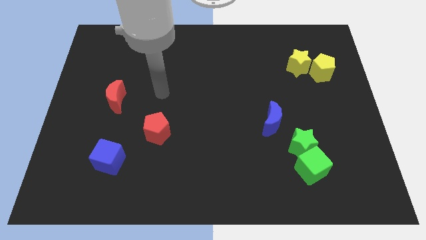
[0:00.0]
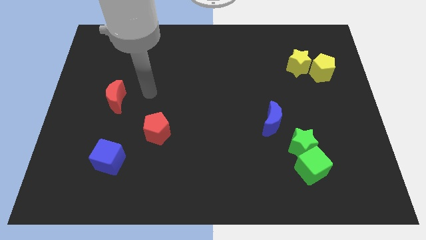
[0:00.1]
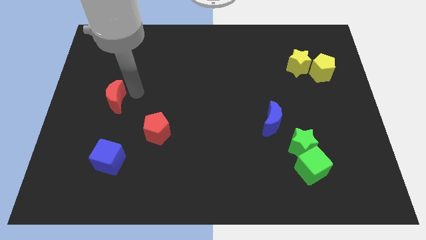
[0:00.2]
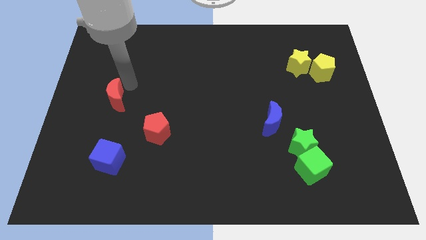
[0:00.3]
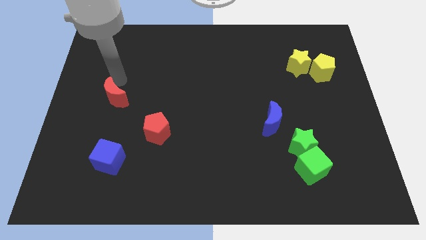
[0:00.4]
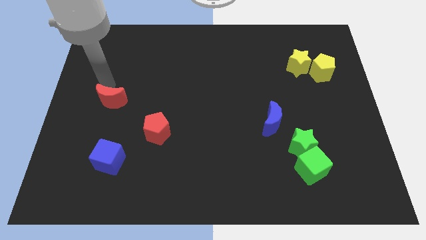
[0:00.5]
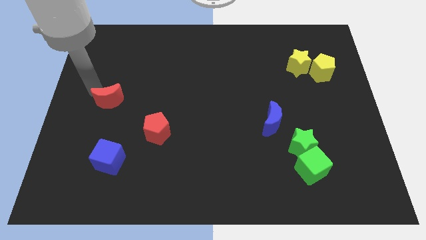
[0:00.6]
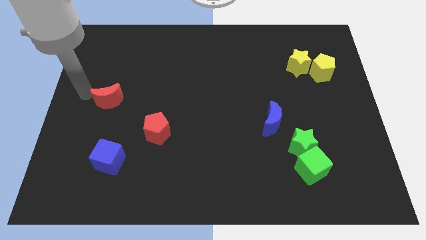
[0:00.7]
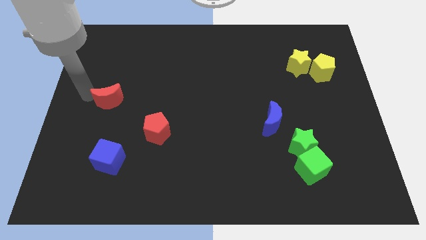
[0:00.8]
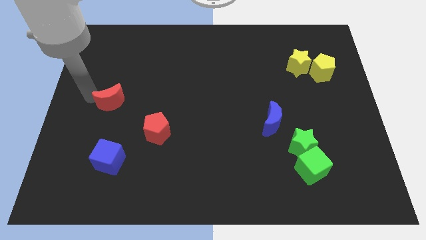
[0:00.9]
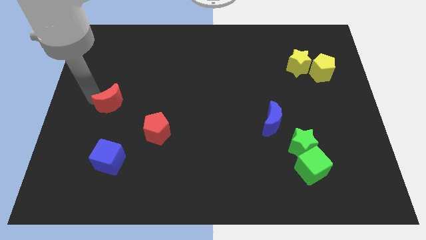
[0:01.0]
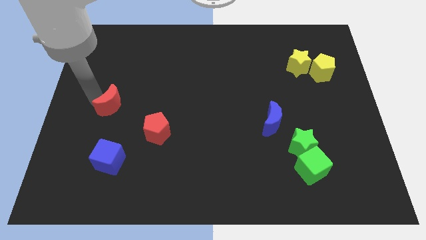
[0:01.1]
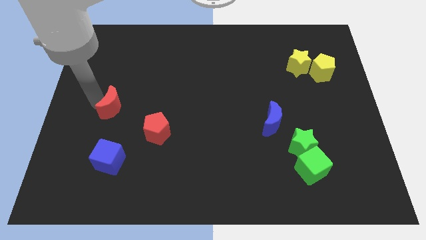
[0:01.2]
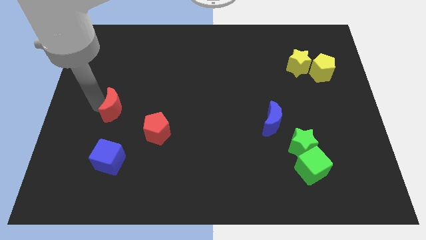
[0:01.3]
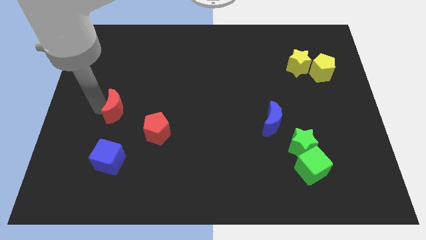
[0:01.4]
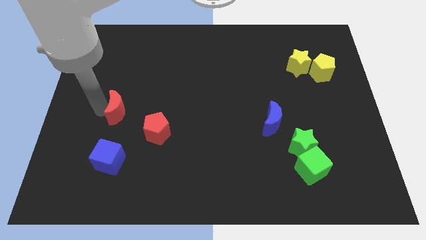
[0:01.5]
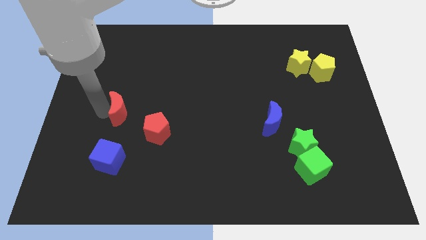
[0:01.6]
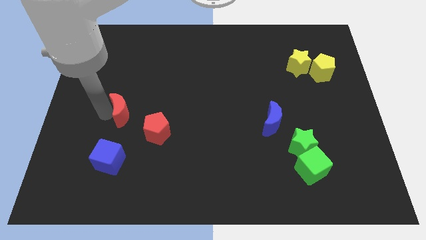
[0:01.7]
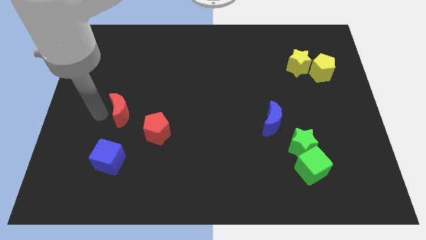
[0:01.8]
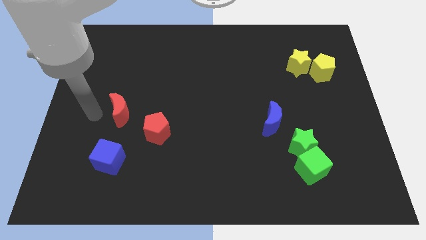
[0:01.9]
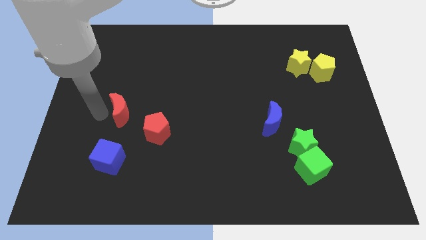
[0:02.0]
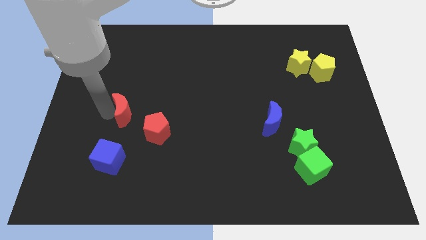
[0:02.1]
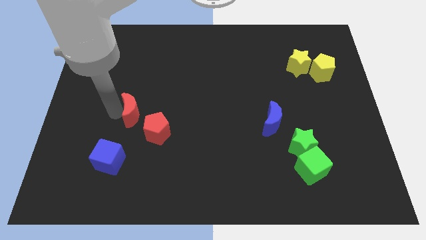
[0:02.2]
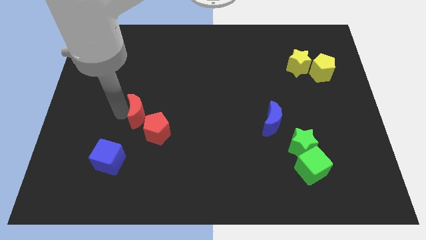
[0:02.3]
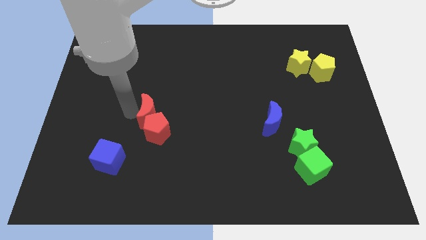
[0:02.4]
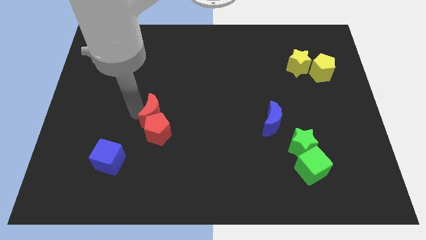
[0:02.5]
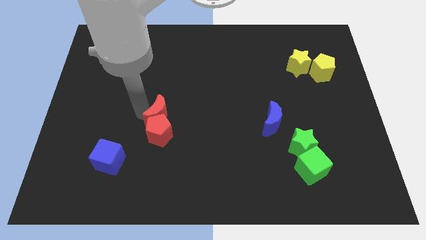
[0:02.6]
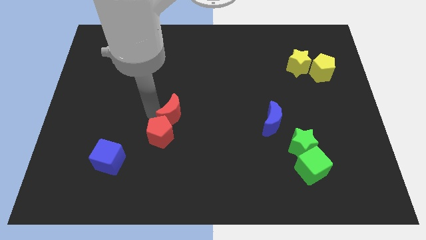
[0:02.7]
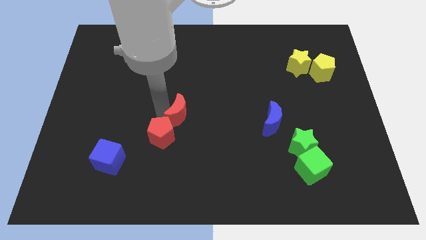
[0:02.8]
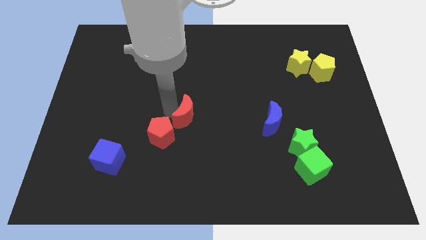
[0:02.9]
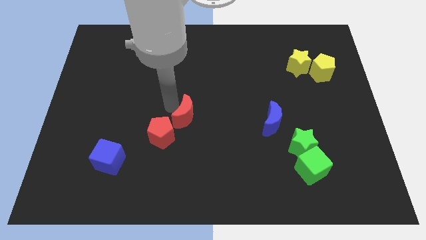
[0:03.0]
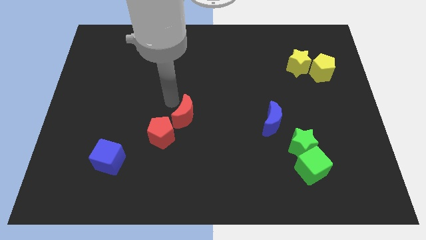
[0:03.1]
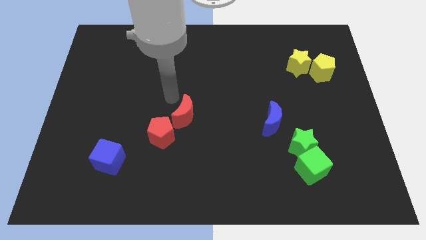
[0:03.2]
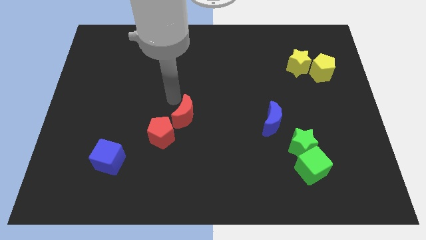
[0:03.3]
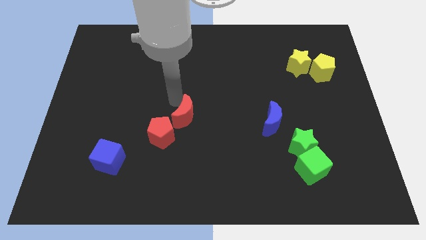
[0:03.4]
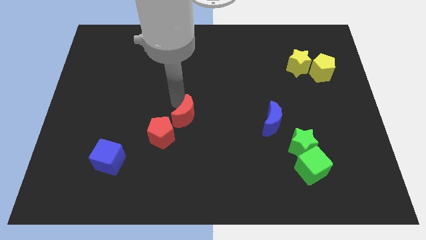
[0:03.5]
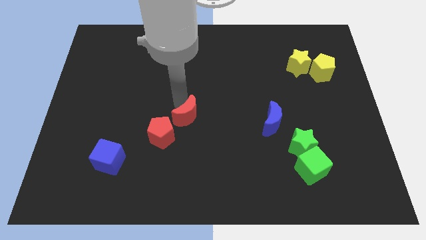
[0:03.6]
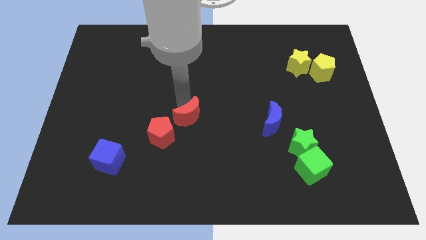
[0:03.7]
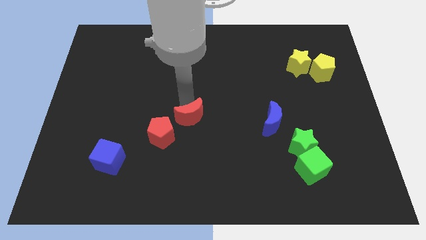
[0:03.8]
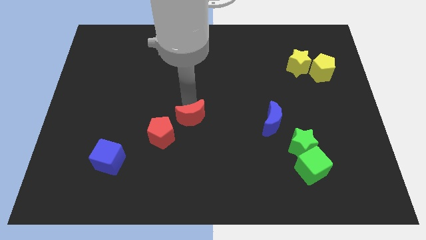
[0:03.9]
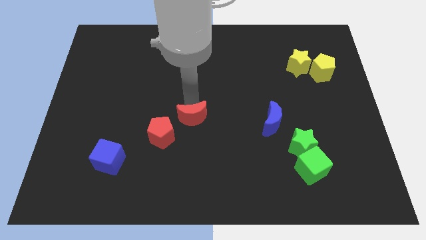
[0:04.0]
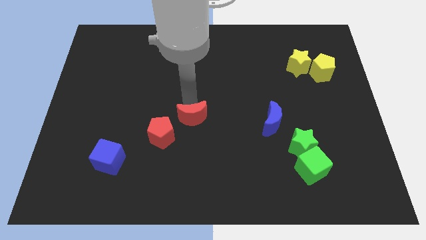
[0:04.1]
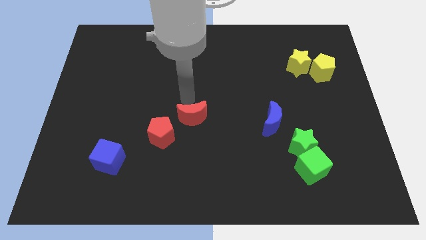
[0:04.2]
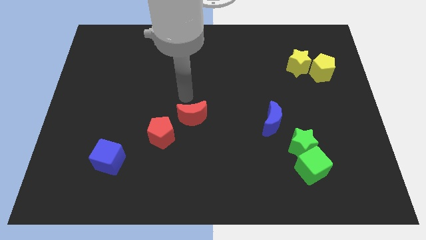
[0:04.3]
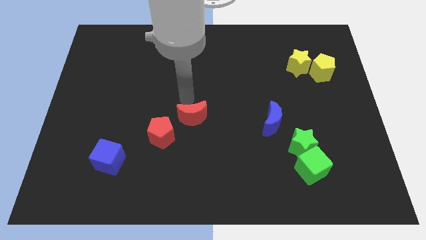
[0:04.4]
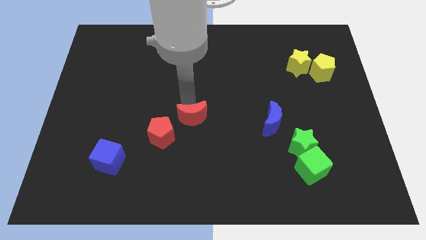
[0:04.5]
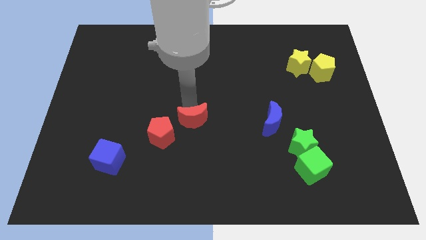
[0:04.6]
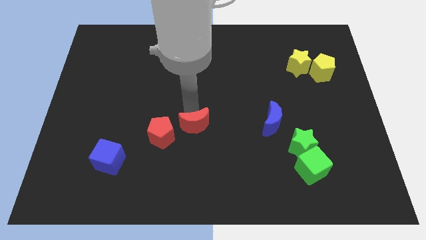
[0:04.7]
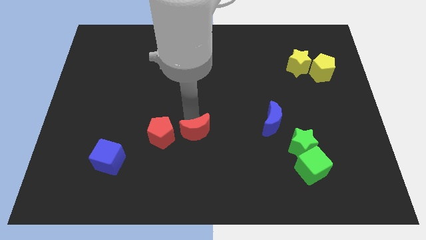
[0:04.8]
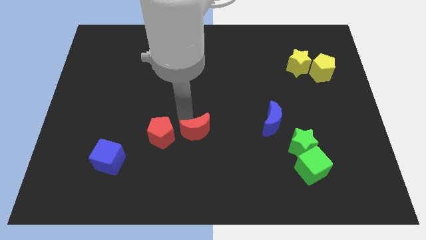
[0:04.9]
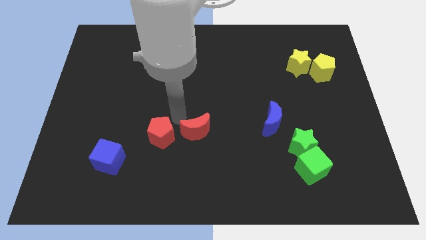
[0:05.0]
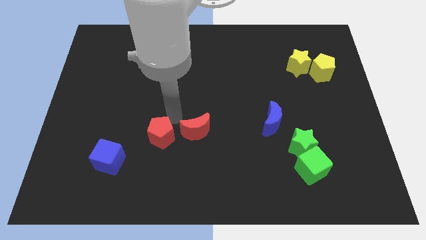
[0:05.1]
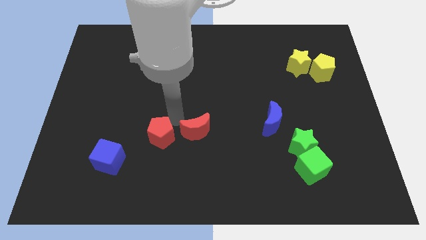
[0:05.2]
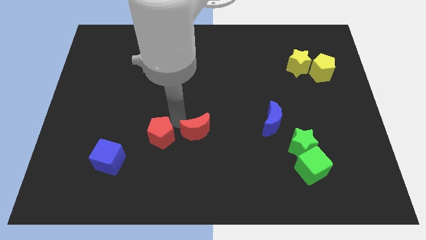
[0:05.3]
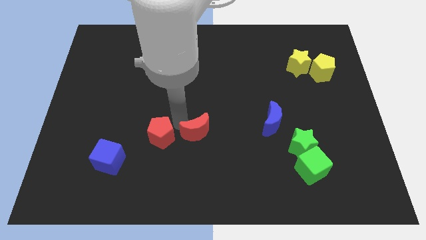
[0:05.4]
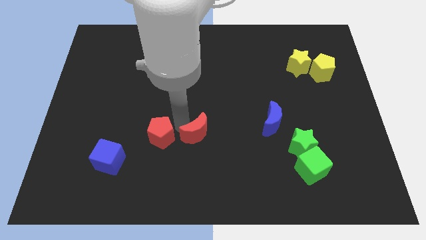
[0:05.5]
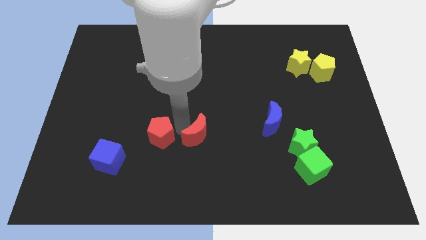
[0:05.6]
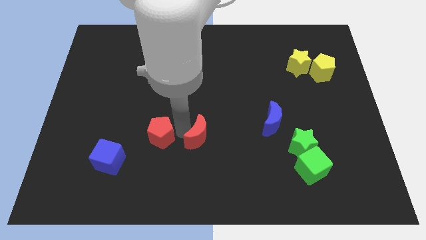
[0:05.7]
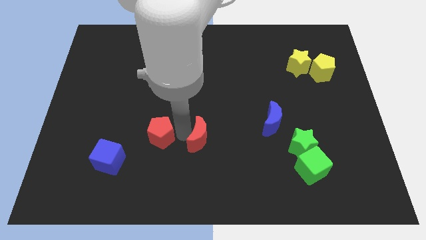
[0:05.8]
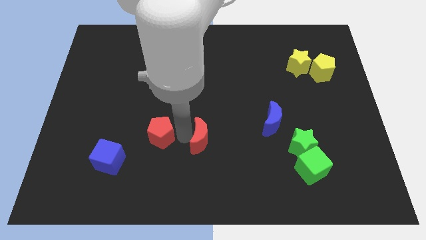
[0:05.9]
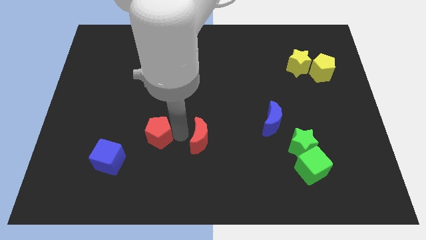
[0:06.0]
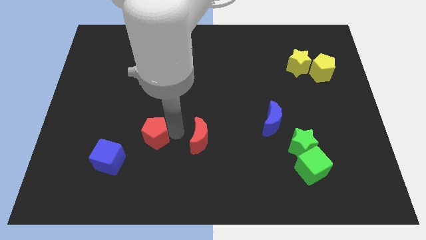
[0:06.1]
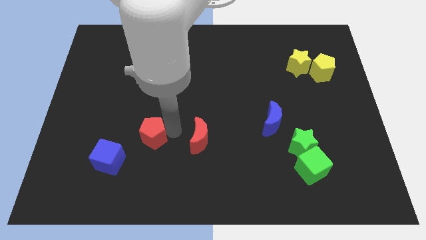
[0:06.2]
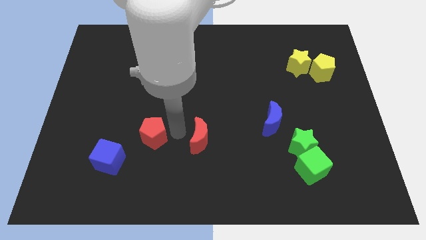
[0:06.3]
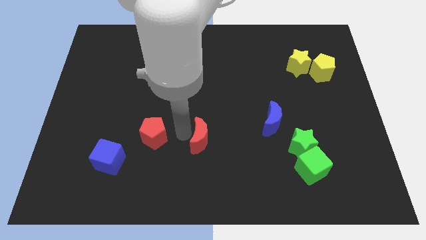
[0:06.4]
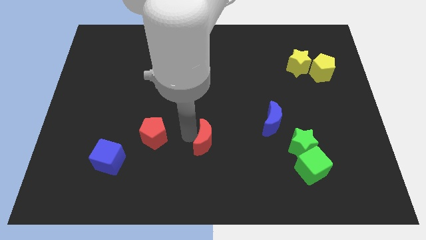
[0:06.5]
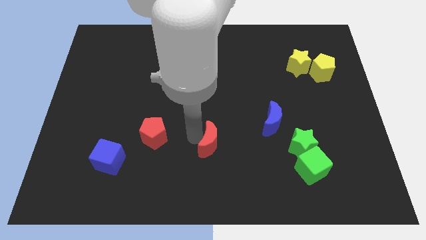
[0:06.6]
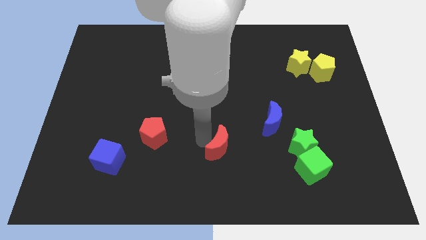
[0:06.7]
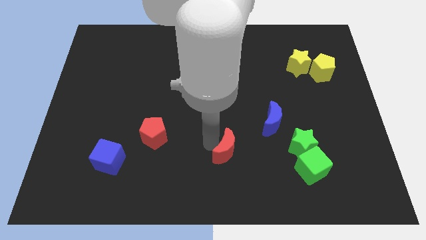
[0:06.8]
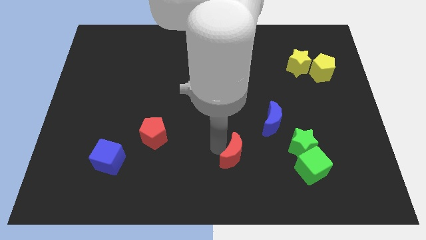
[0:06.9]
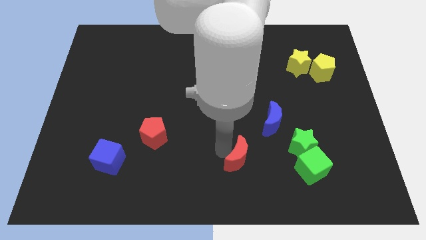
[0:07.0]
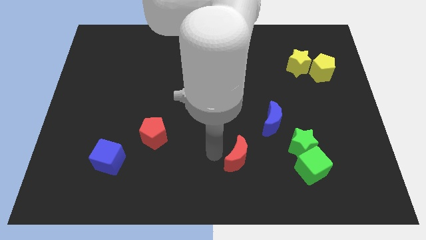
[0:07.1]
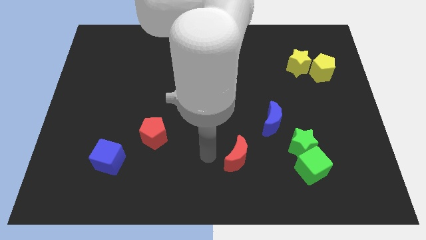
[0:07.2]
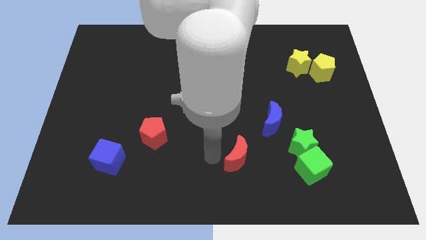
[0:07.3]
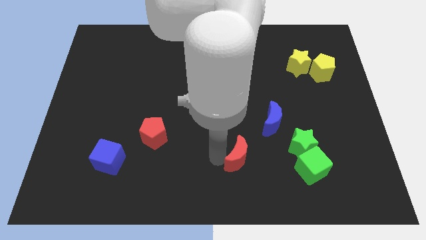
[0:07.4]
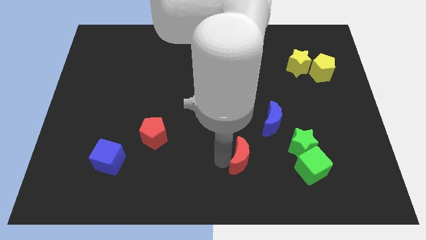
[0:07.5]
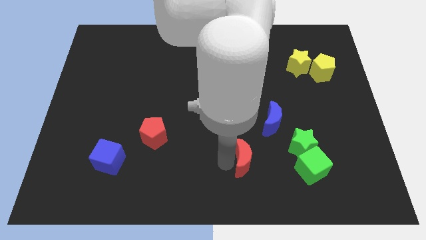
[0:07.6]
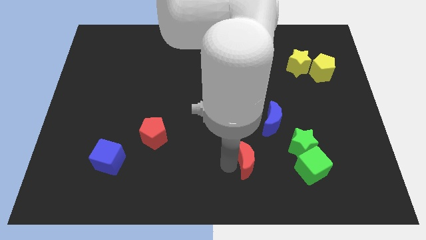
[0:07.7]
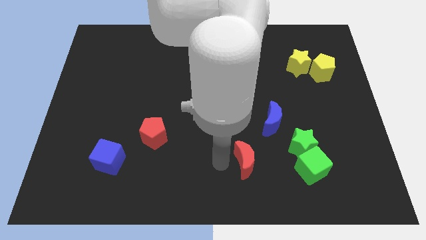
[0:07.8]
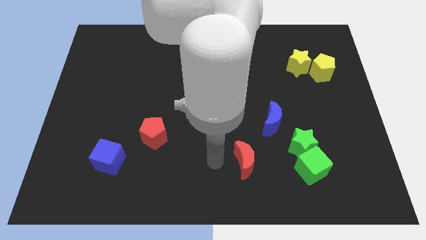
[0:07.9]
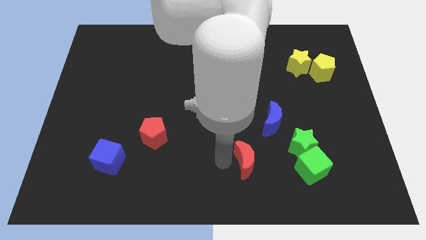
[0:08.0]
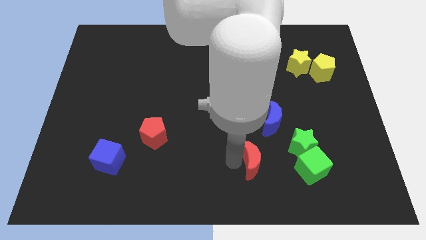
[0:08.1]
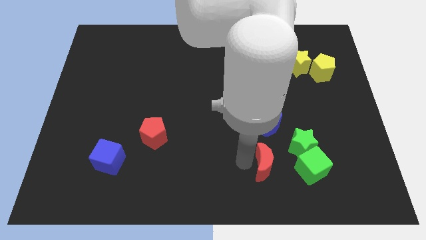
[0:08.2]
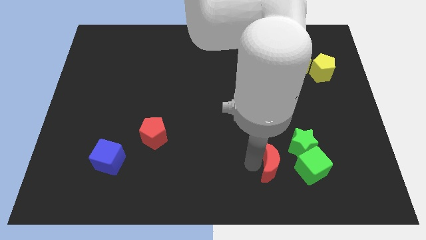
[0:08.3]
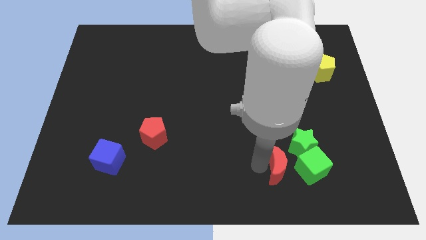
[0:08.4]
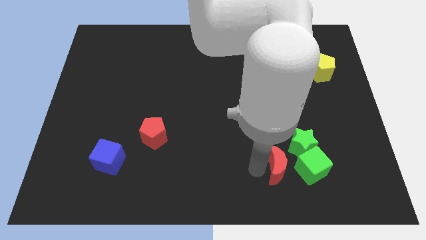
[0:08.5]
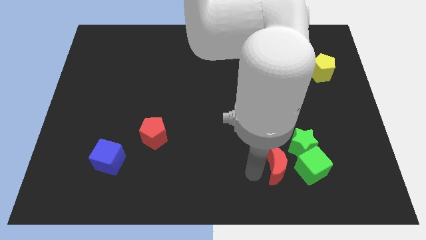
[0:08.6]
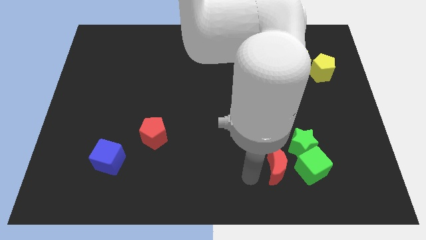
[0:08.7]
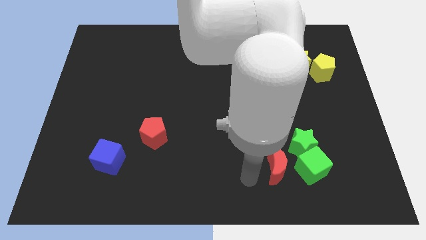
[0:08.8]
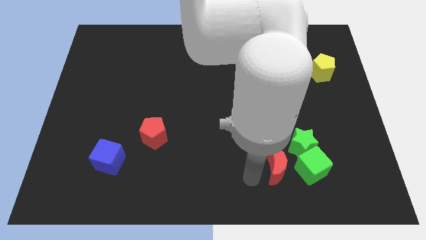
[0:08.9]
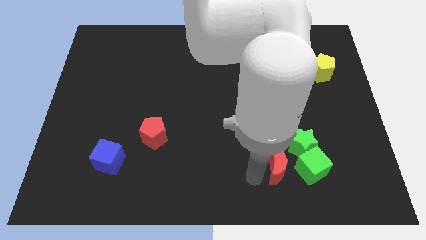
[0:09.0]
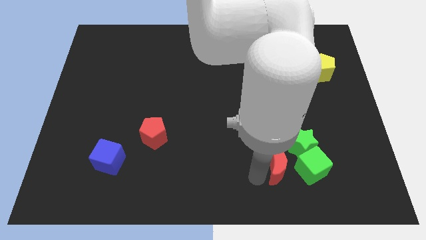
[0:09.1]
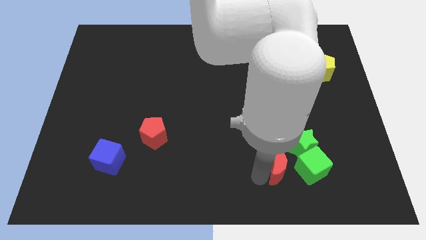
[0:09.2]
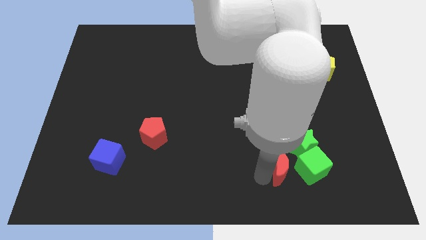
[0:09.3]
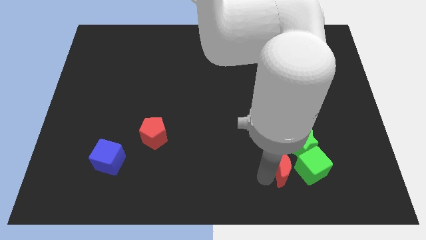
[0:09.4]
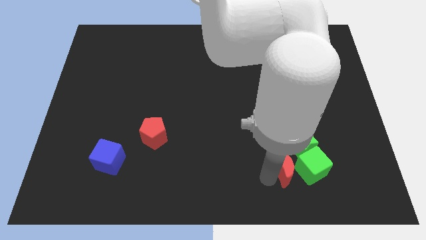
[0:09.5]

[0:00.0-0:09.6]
slide the red moon towards the green cube
